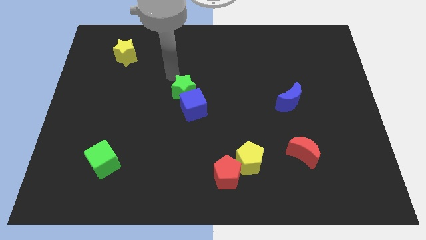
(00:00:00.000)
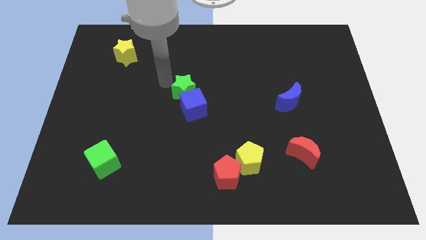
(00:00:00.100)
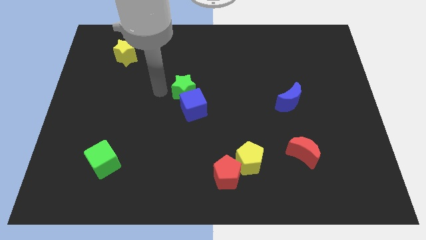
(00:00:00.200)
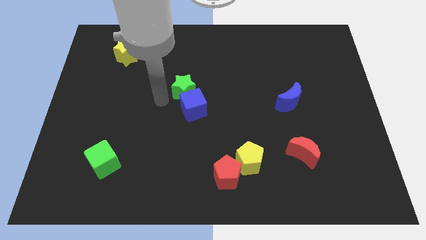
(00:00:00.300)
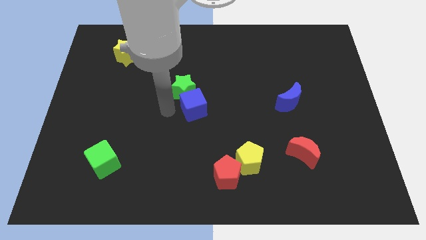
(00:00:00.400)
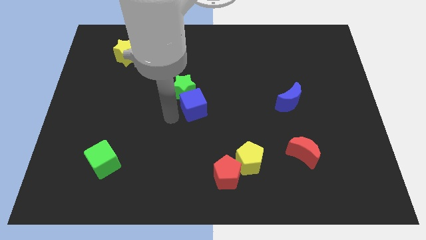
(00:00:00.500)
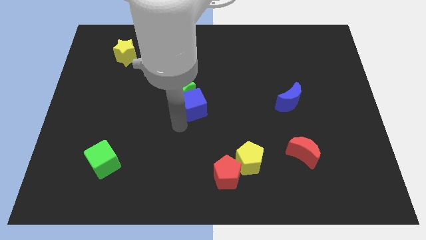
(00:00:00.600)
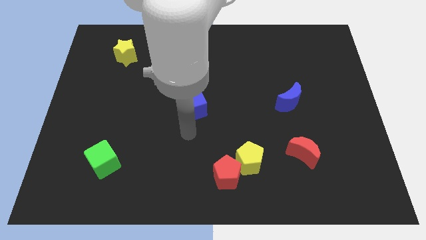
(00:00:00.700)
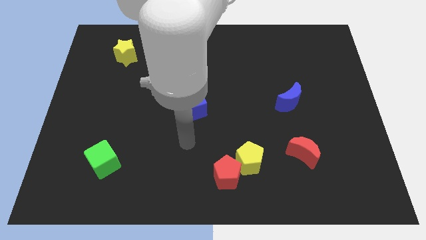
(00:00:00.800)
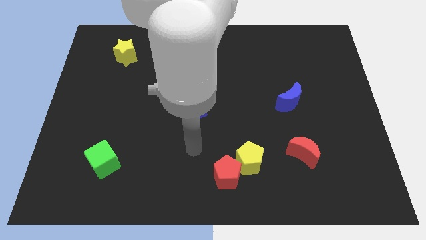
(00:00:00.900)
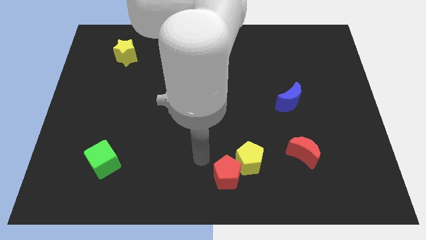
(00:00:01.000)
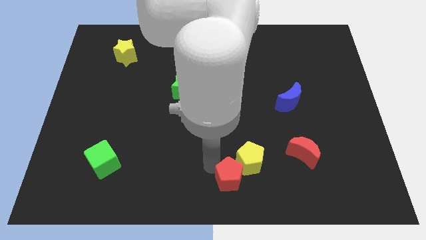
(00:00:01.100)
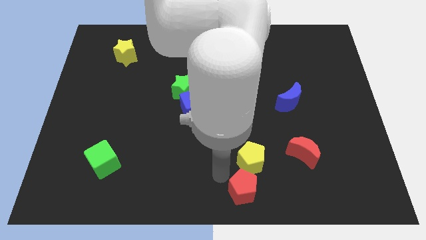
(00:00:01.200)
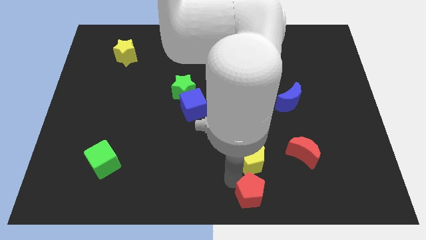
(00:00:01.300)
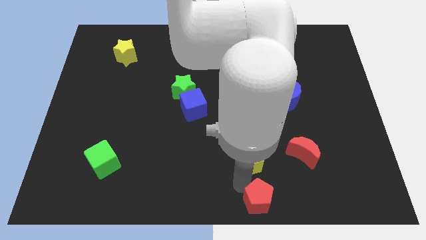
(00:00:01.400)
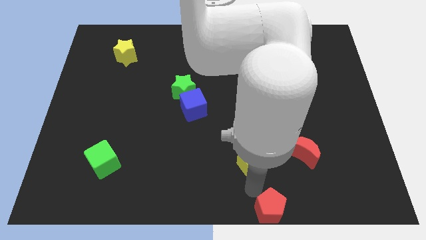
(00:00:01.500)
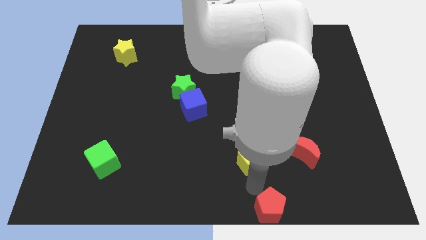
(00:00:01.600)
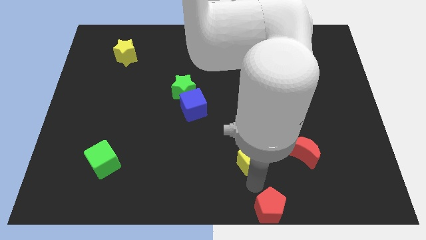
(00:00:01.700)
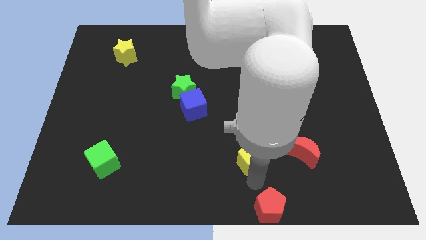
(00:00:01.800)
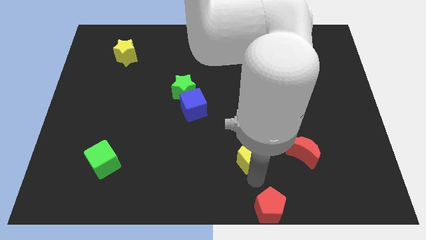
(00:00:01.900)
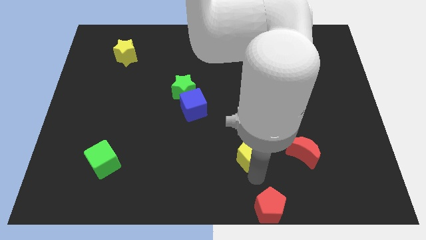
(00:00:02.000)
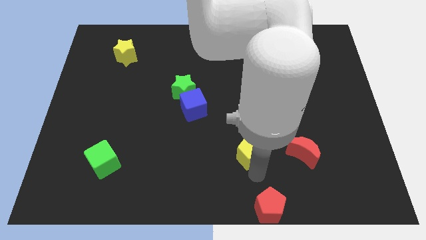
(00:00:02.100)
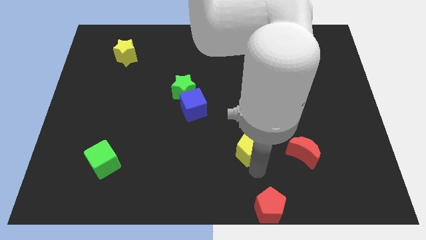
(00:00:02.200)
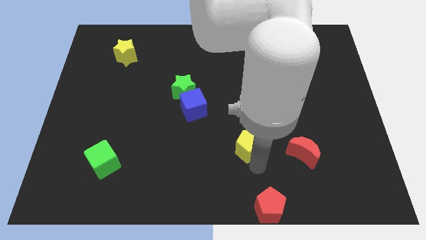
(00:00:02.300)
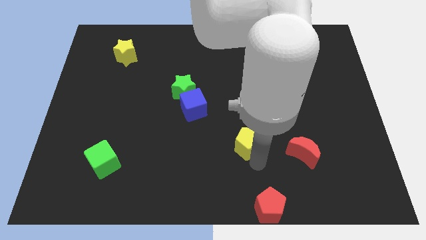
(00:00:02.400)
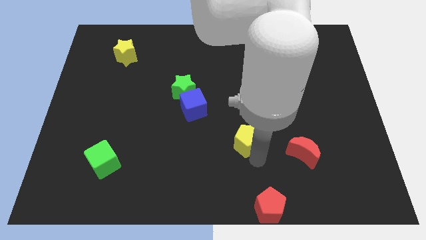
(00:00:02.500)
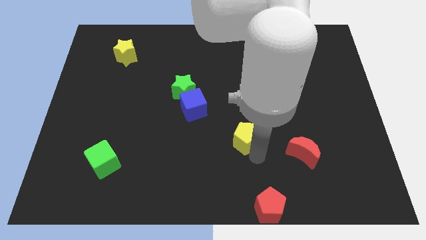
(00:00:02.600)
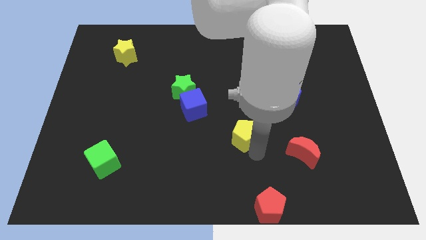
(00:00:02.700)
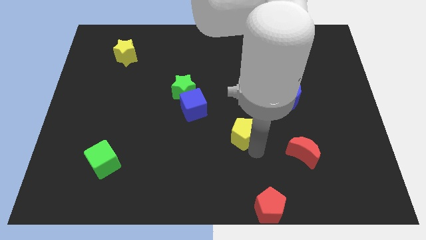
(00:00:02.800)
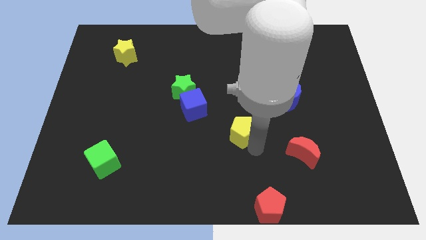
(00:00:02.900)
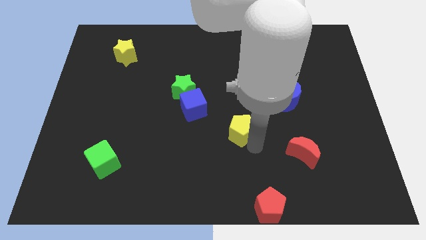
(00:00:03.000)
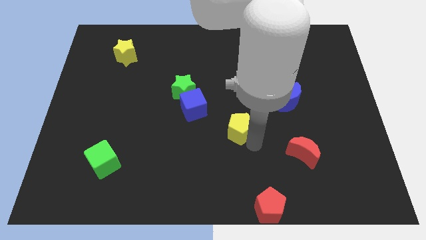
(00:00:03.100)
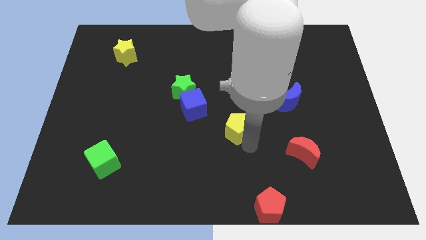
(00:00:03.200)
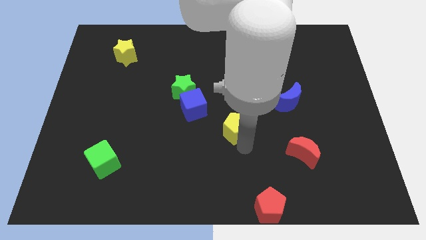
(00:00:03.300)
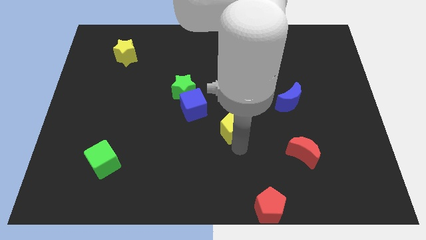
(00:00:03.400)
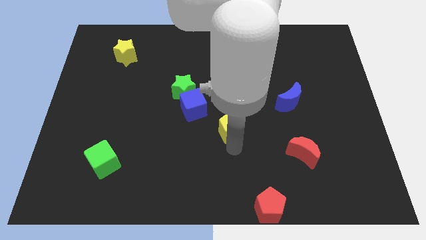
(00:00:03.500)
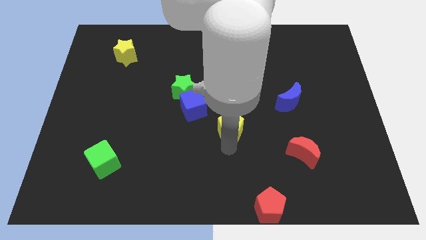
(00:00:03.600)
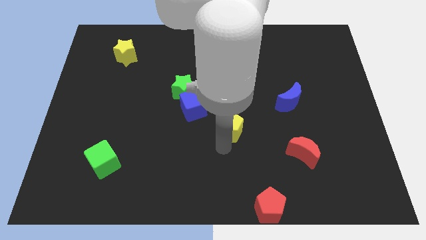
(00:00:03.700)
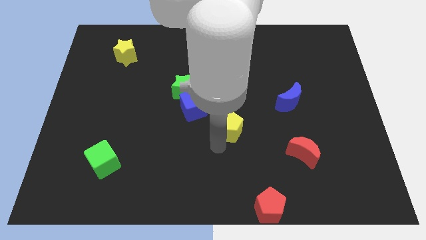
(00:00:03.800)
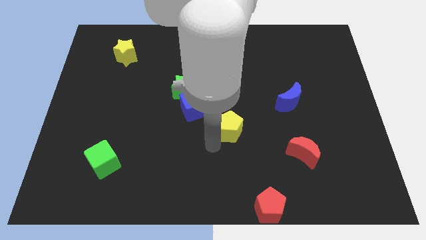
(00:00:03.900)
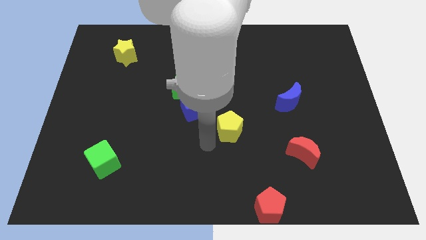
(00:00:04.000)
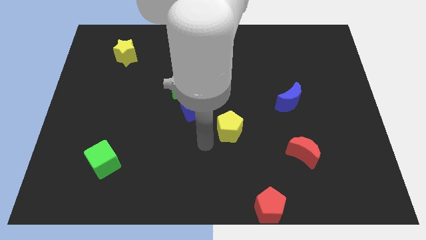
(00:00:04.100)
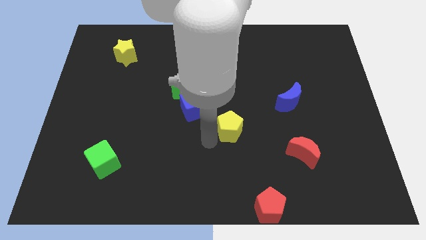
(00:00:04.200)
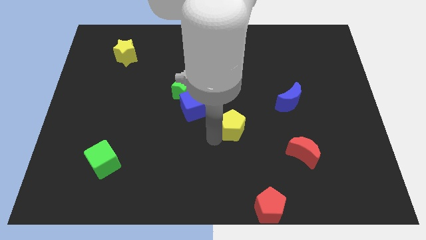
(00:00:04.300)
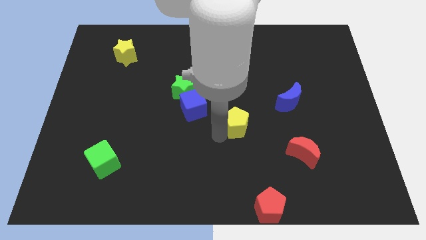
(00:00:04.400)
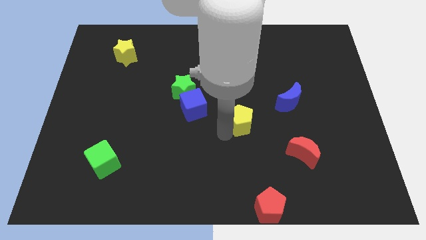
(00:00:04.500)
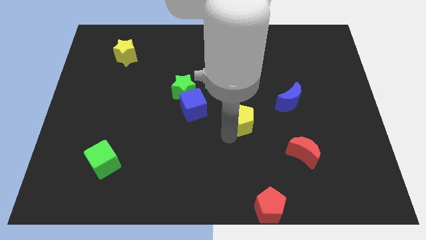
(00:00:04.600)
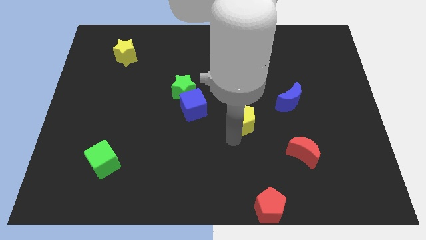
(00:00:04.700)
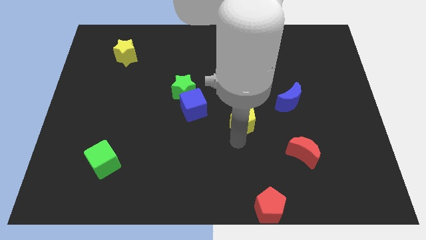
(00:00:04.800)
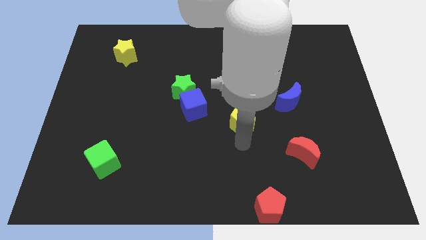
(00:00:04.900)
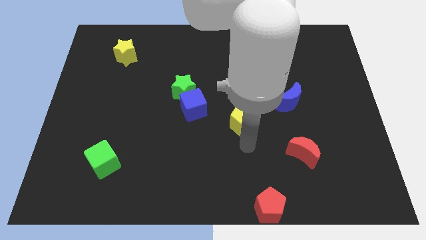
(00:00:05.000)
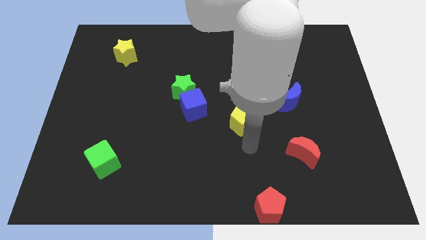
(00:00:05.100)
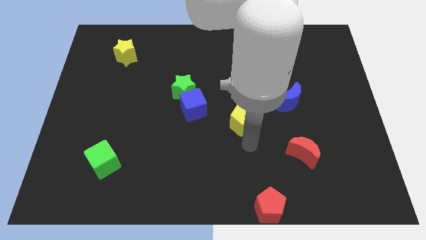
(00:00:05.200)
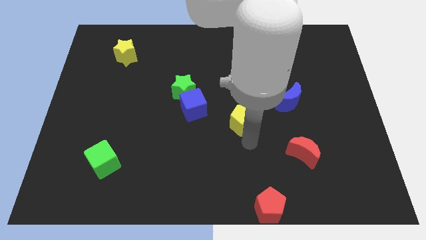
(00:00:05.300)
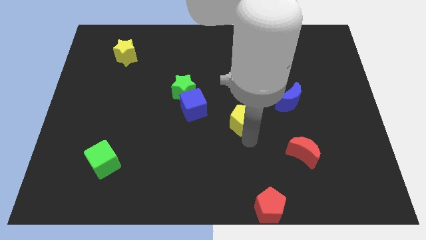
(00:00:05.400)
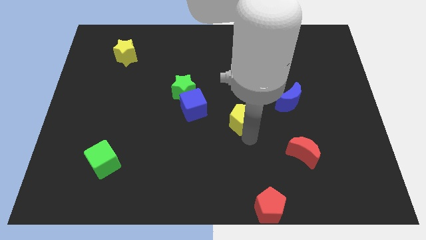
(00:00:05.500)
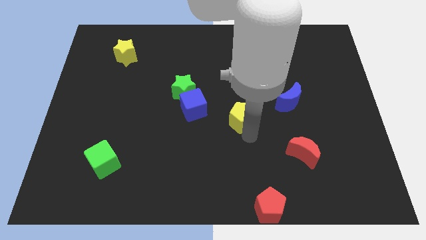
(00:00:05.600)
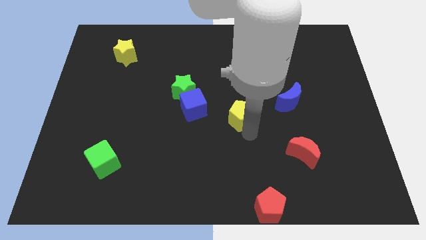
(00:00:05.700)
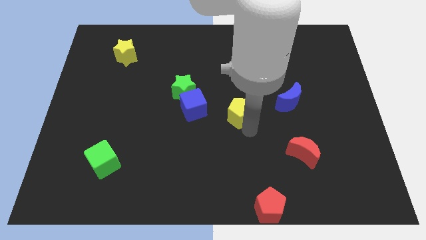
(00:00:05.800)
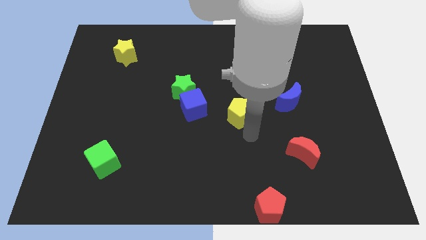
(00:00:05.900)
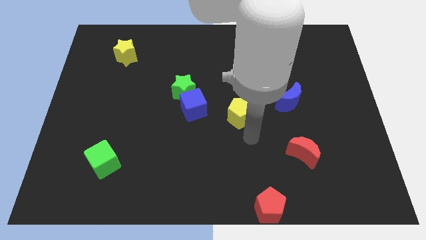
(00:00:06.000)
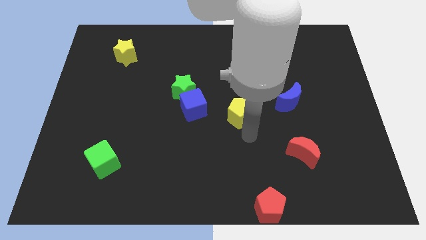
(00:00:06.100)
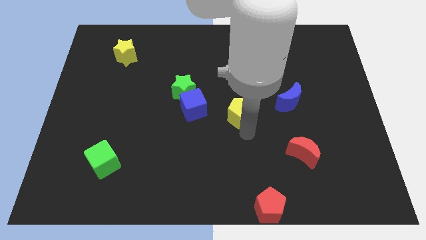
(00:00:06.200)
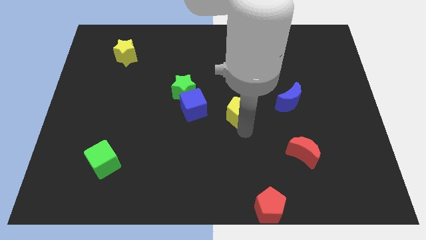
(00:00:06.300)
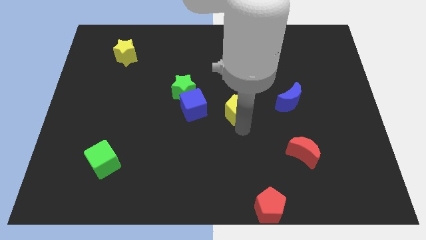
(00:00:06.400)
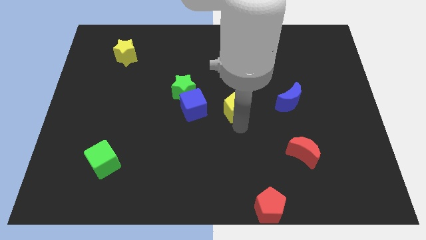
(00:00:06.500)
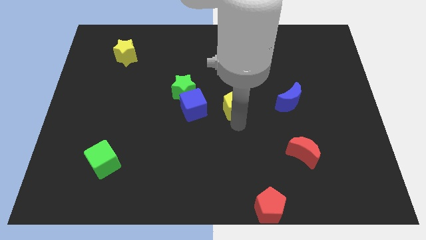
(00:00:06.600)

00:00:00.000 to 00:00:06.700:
slide the yellow pentagon to the right of the green star

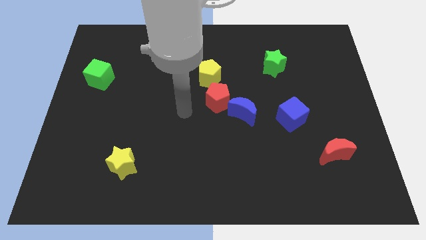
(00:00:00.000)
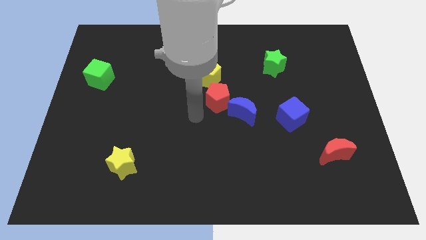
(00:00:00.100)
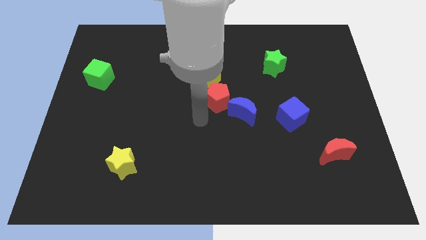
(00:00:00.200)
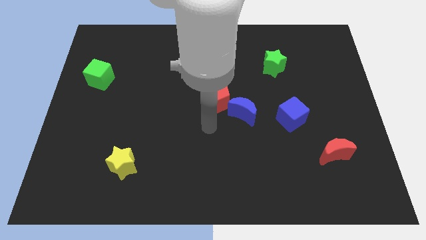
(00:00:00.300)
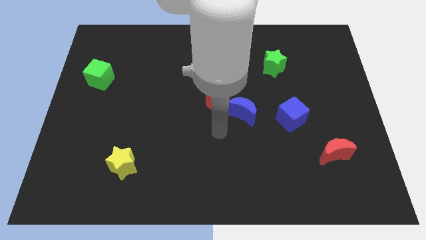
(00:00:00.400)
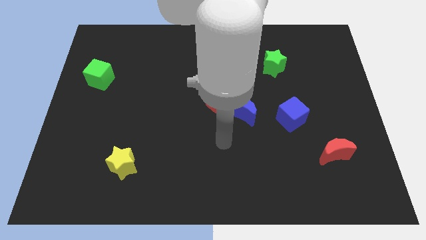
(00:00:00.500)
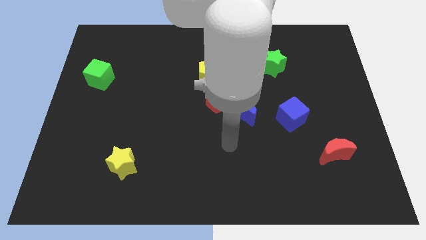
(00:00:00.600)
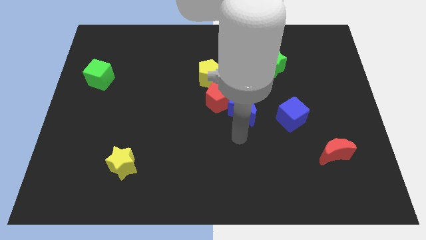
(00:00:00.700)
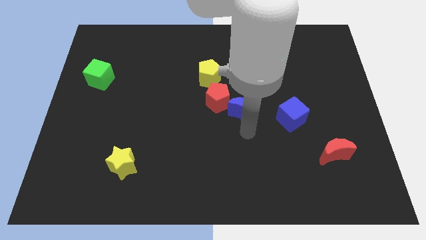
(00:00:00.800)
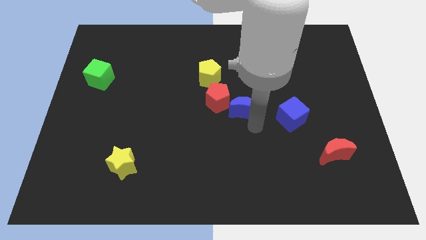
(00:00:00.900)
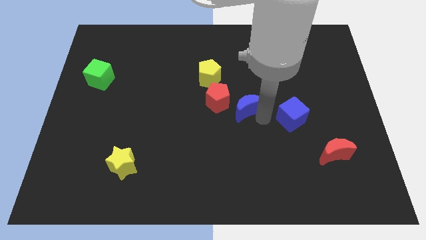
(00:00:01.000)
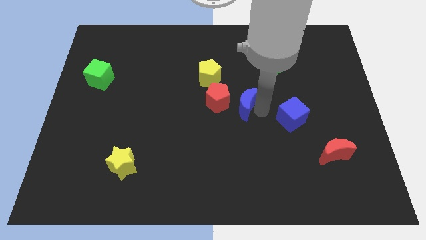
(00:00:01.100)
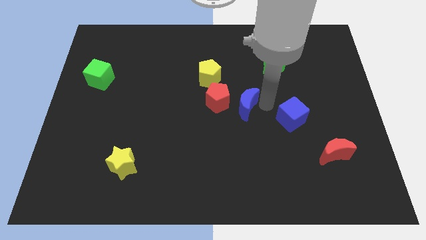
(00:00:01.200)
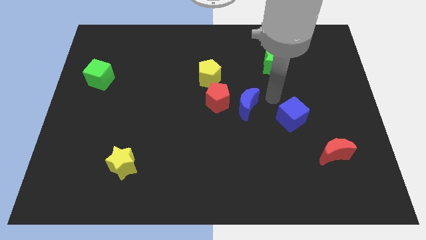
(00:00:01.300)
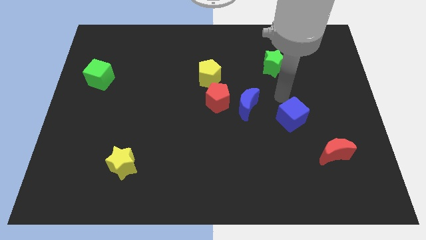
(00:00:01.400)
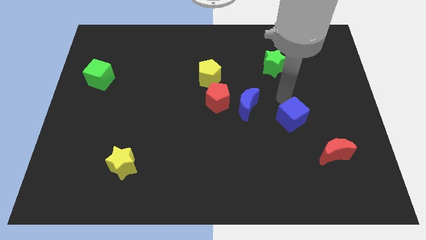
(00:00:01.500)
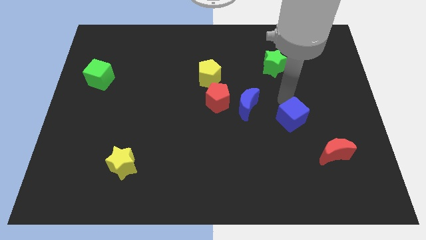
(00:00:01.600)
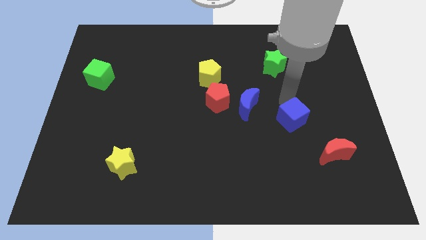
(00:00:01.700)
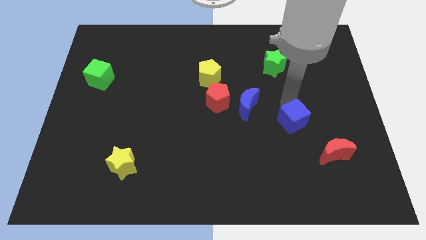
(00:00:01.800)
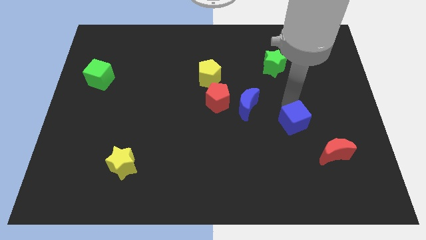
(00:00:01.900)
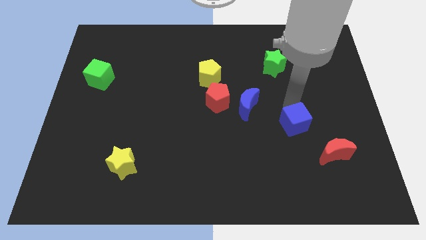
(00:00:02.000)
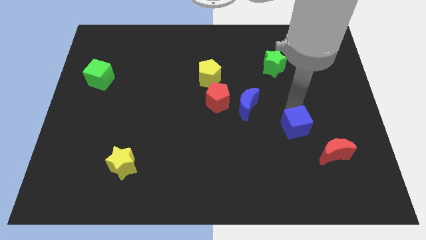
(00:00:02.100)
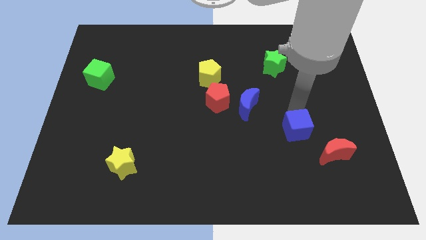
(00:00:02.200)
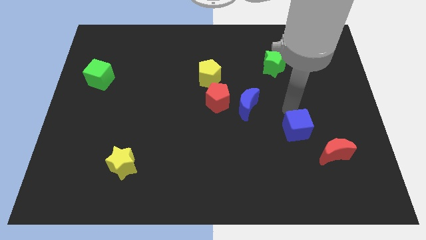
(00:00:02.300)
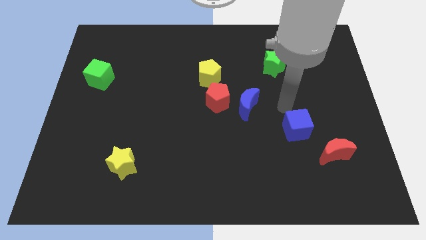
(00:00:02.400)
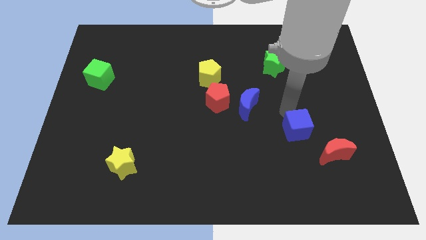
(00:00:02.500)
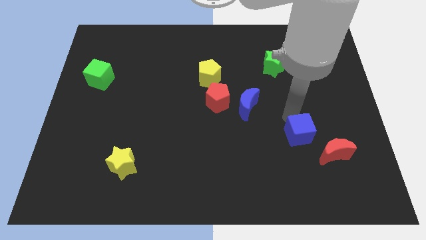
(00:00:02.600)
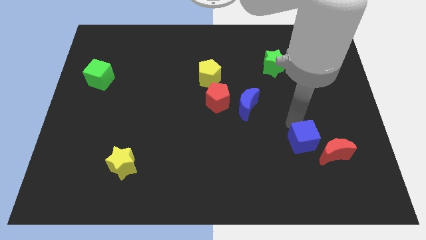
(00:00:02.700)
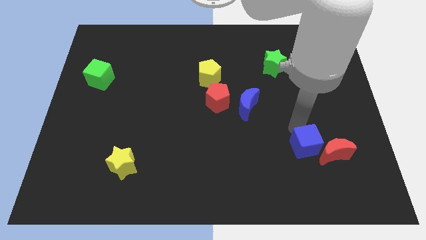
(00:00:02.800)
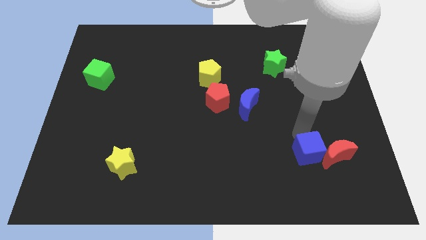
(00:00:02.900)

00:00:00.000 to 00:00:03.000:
push the blue cube to the bottom left side of the red moon
